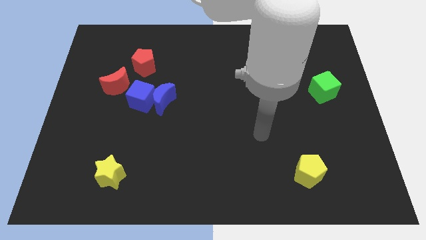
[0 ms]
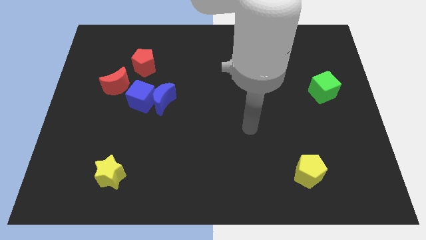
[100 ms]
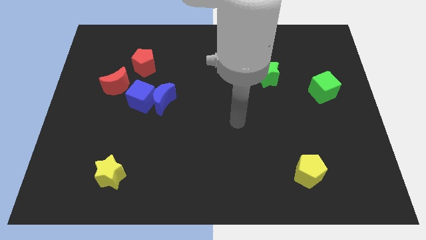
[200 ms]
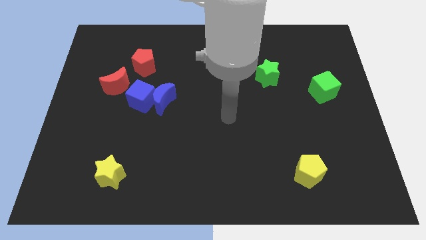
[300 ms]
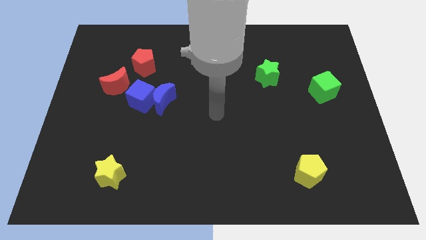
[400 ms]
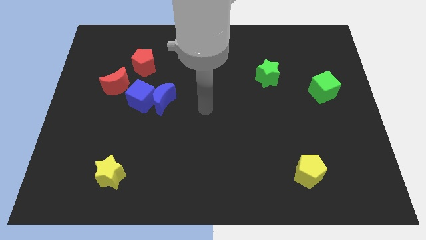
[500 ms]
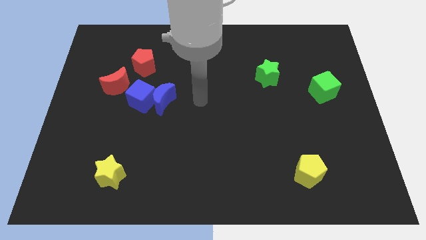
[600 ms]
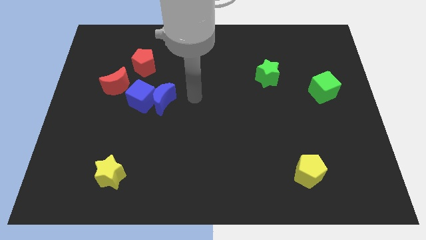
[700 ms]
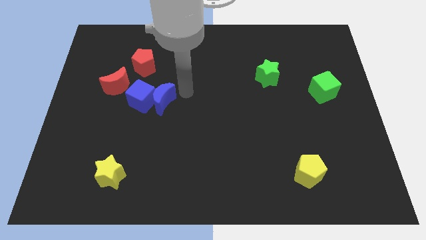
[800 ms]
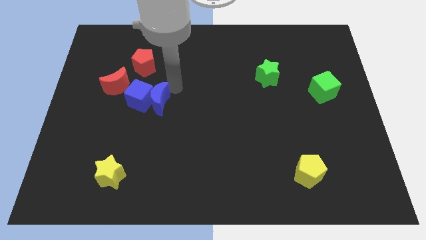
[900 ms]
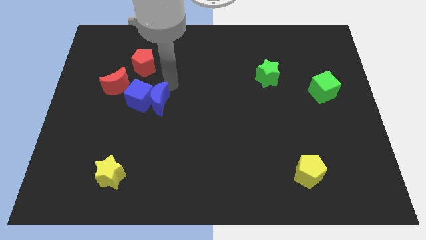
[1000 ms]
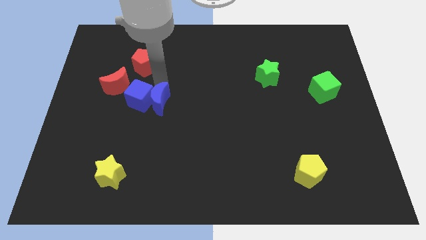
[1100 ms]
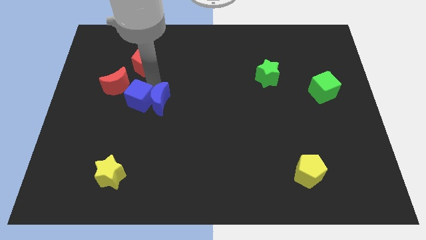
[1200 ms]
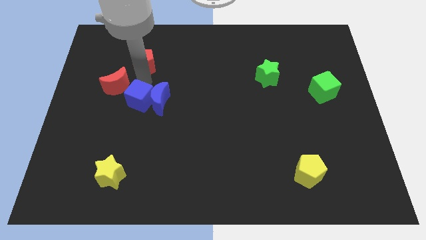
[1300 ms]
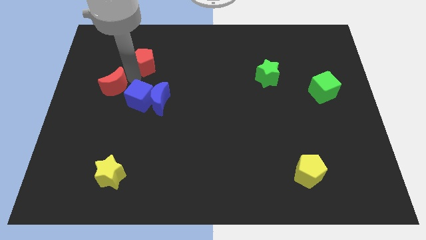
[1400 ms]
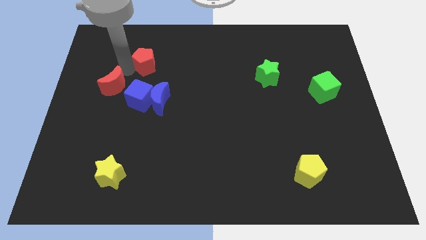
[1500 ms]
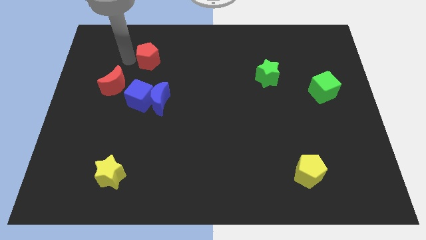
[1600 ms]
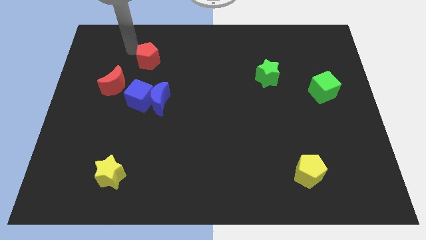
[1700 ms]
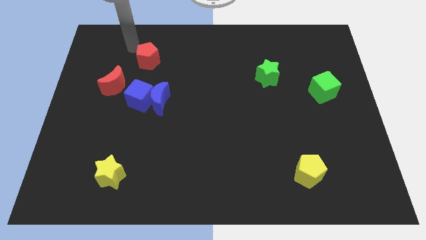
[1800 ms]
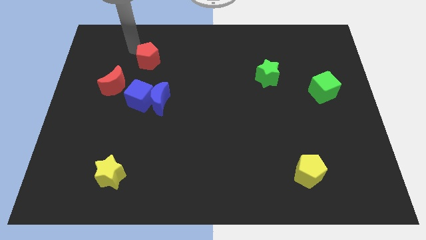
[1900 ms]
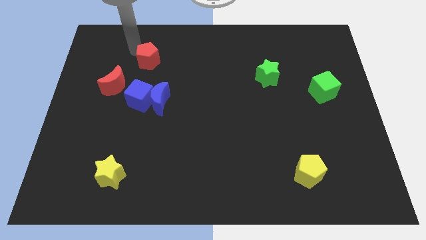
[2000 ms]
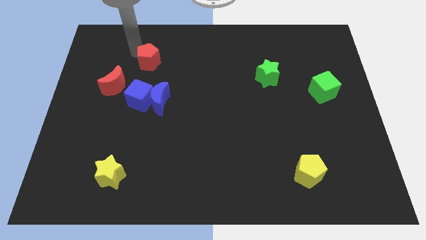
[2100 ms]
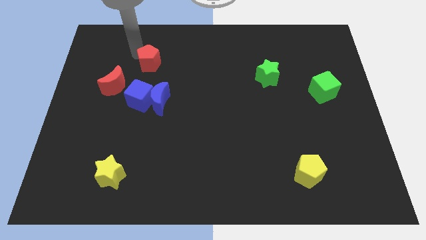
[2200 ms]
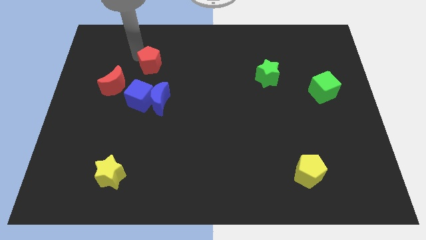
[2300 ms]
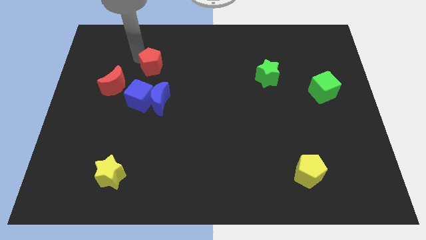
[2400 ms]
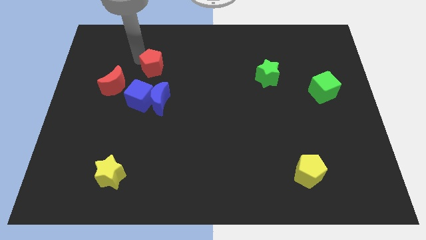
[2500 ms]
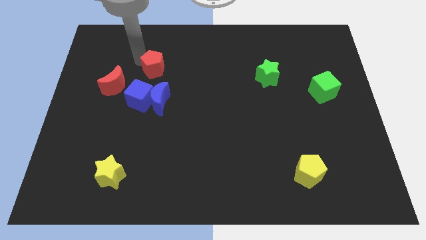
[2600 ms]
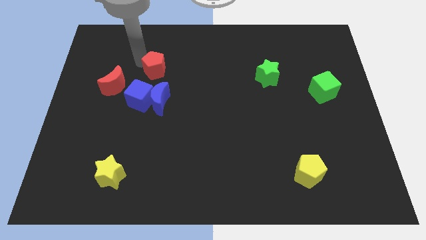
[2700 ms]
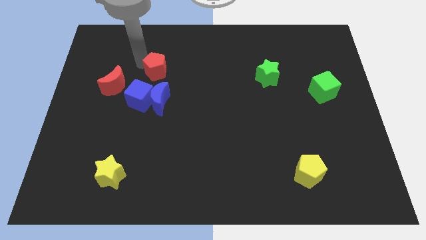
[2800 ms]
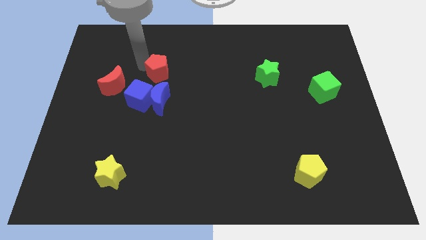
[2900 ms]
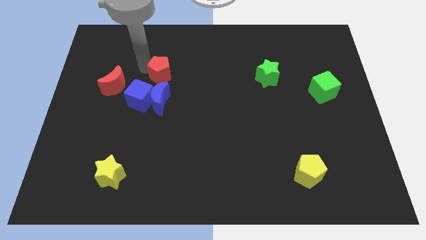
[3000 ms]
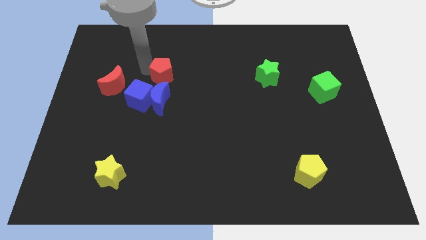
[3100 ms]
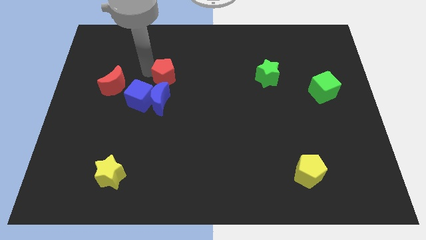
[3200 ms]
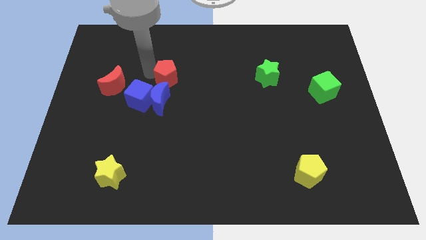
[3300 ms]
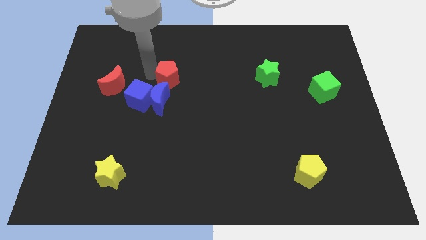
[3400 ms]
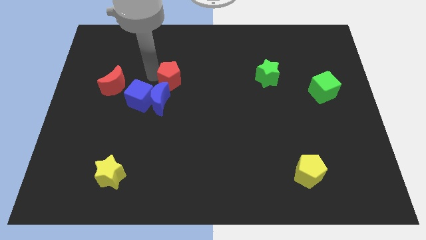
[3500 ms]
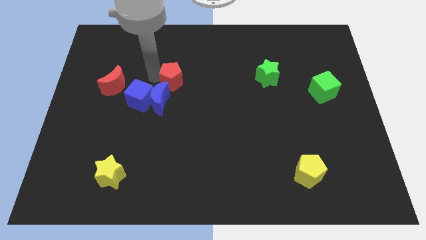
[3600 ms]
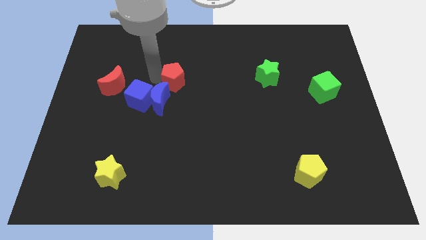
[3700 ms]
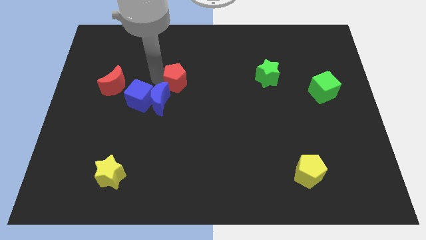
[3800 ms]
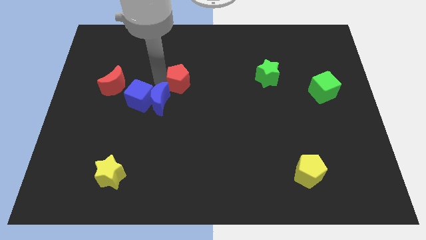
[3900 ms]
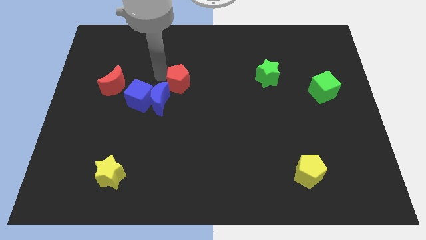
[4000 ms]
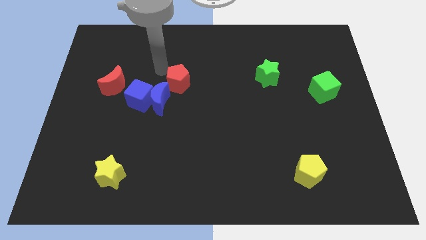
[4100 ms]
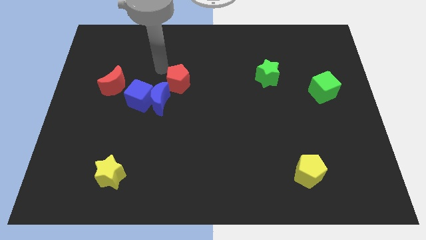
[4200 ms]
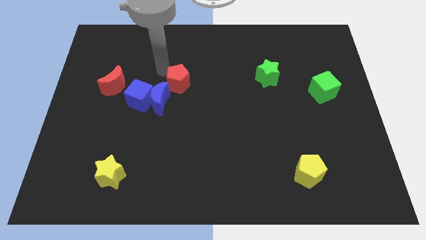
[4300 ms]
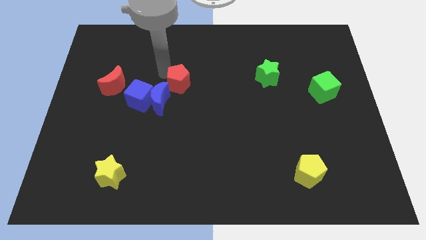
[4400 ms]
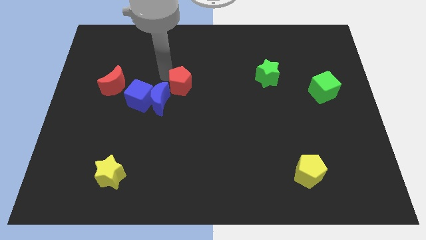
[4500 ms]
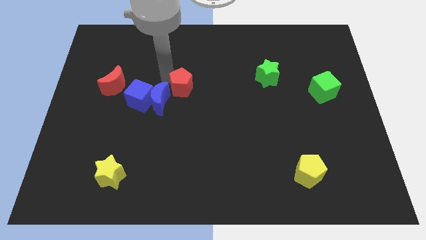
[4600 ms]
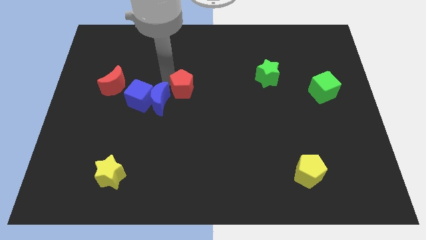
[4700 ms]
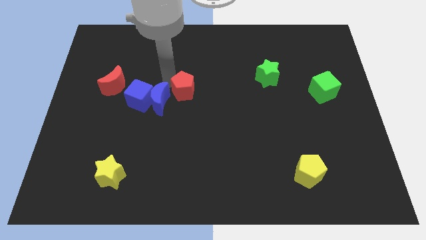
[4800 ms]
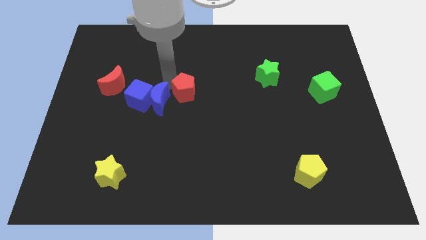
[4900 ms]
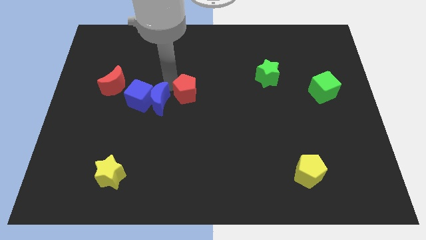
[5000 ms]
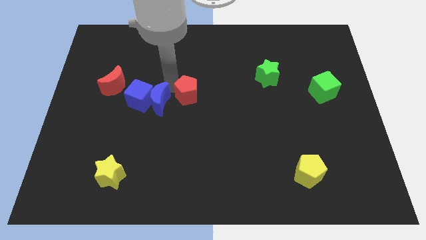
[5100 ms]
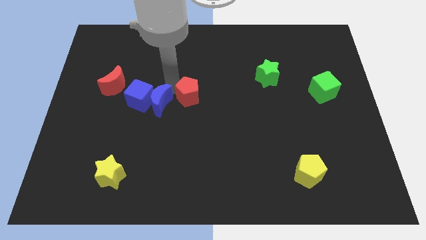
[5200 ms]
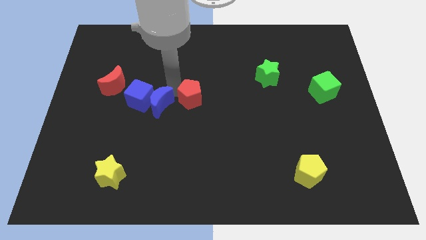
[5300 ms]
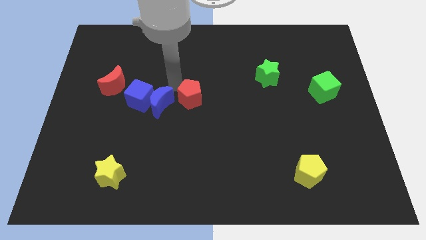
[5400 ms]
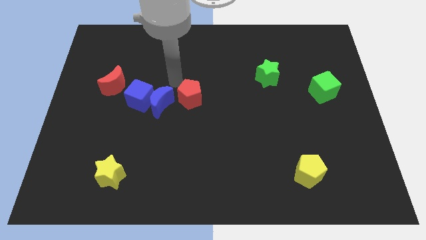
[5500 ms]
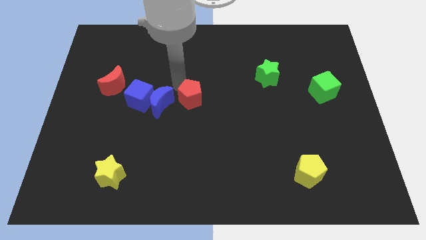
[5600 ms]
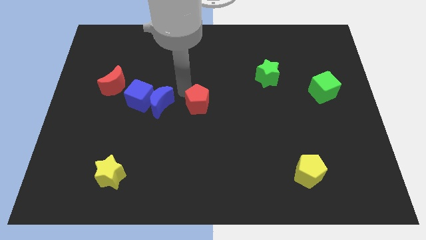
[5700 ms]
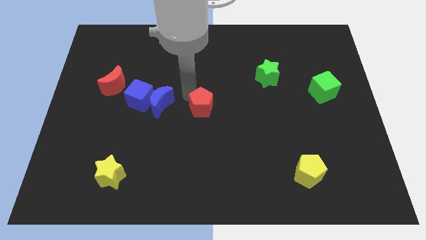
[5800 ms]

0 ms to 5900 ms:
slide the red pentagon diagonally down and to the right

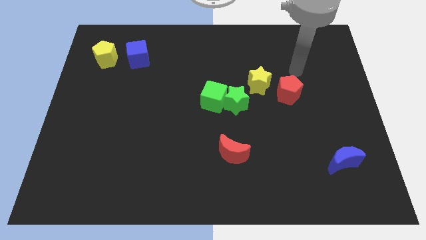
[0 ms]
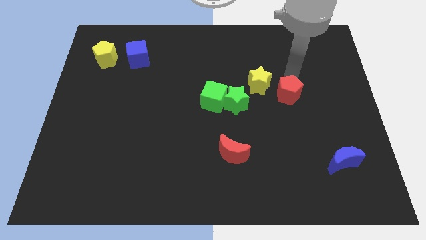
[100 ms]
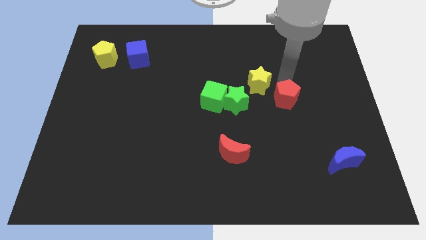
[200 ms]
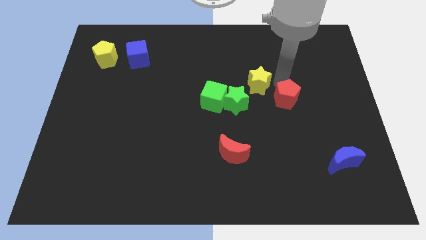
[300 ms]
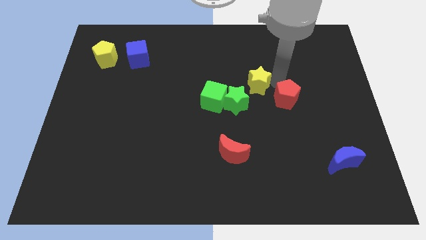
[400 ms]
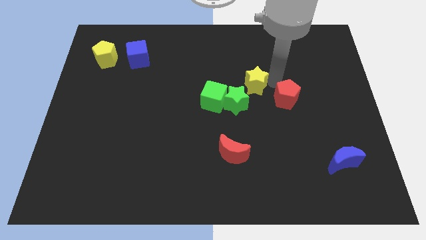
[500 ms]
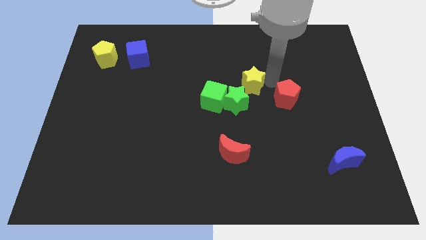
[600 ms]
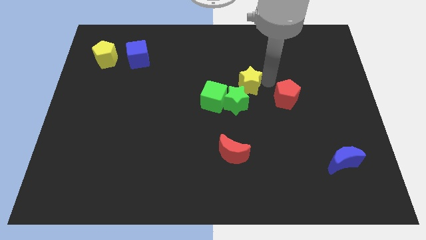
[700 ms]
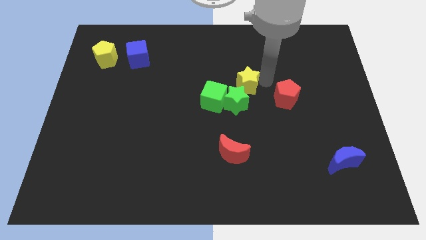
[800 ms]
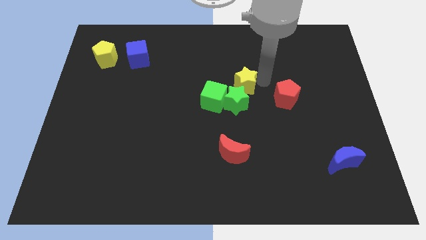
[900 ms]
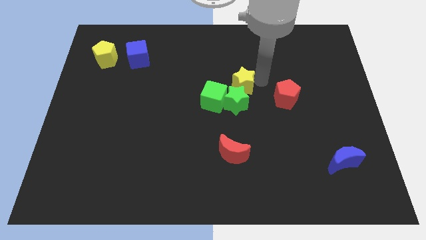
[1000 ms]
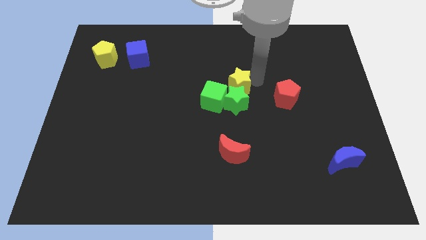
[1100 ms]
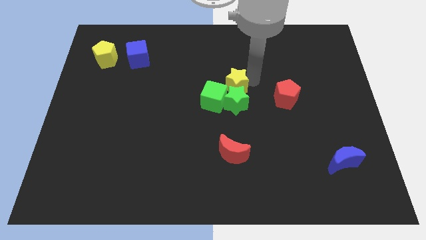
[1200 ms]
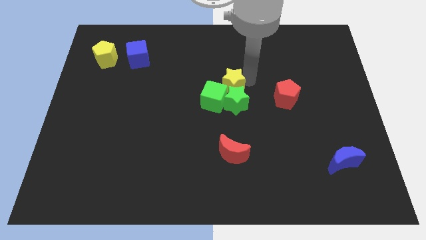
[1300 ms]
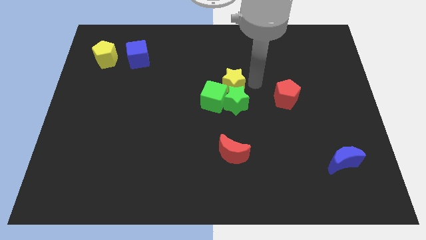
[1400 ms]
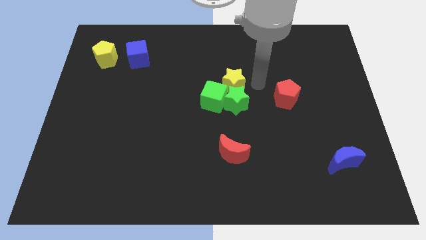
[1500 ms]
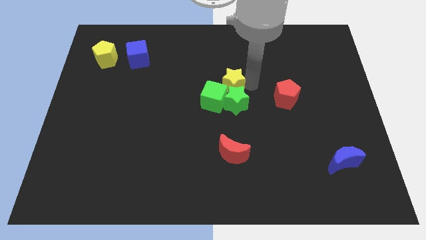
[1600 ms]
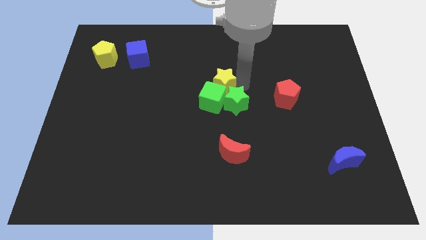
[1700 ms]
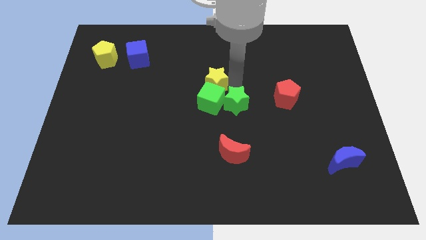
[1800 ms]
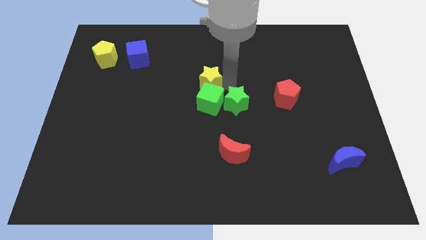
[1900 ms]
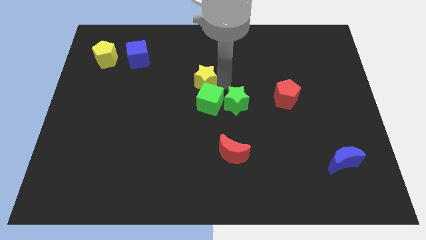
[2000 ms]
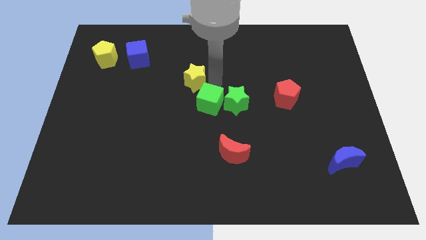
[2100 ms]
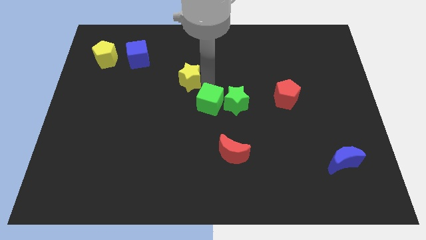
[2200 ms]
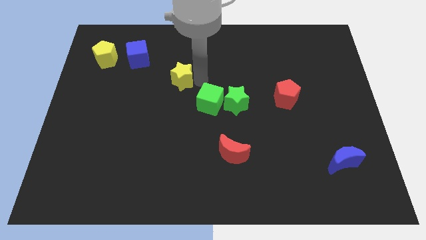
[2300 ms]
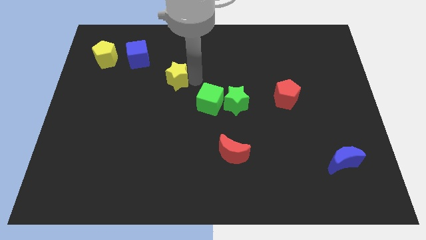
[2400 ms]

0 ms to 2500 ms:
push the yellow star to the left
